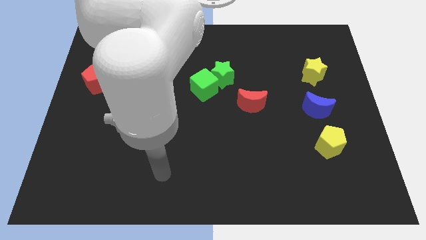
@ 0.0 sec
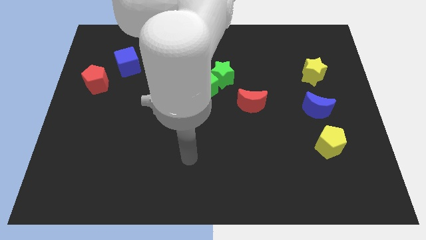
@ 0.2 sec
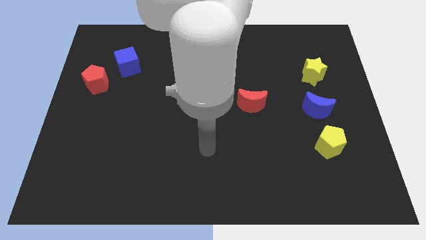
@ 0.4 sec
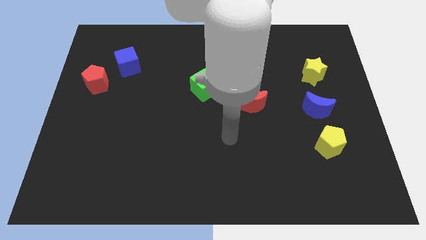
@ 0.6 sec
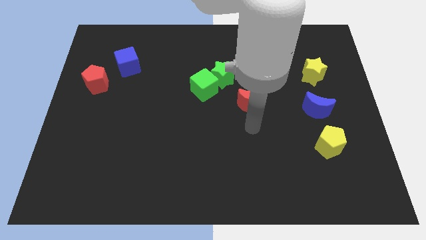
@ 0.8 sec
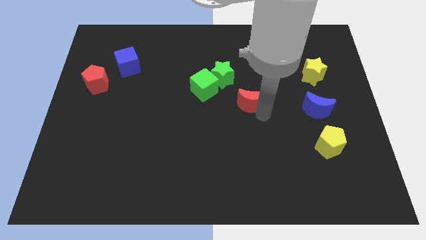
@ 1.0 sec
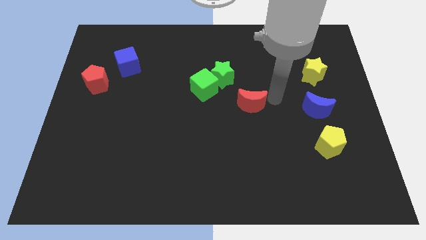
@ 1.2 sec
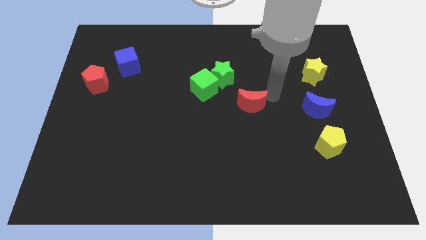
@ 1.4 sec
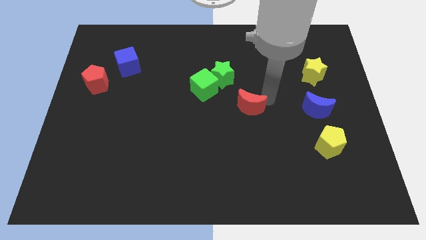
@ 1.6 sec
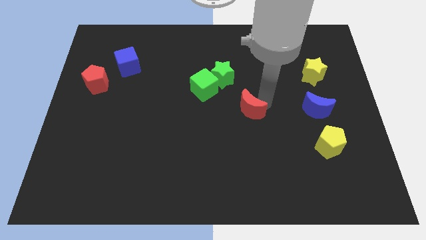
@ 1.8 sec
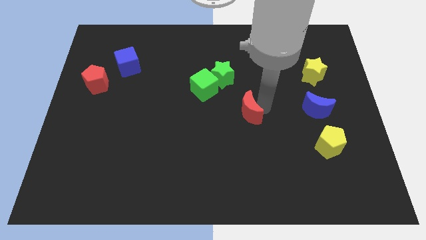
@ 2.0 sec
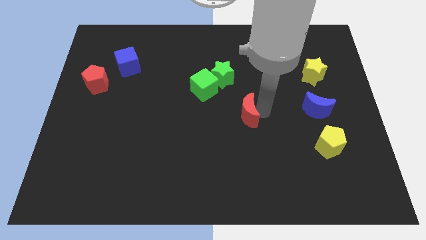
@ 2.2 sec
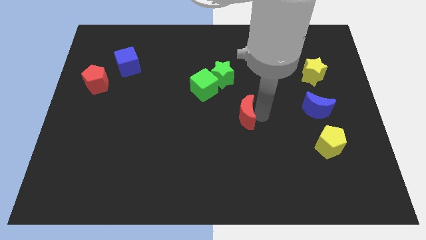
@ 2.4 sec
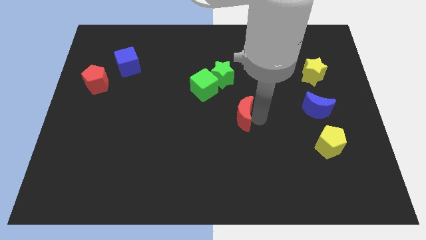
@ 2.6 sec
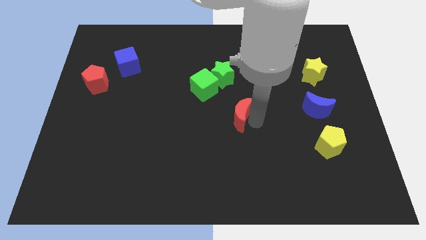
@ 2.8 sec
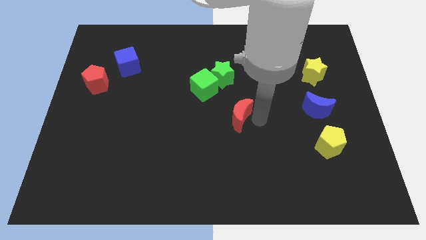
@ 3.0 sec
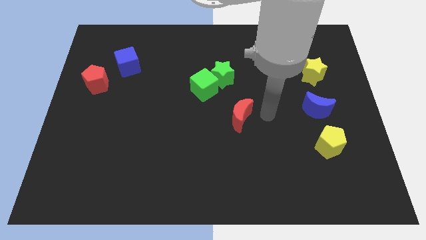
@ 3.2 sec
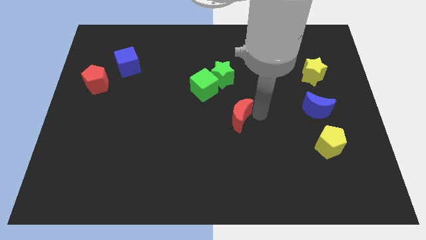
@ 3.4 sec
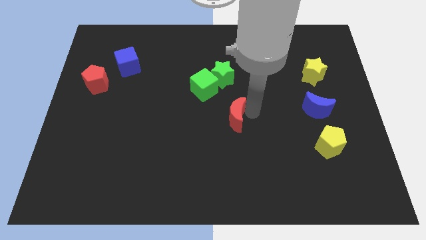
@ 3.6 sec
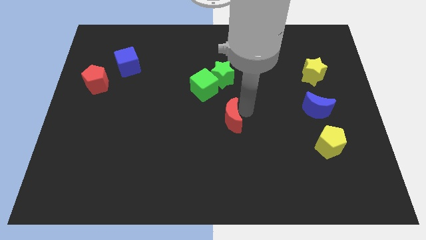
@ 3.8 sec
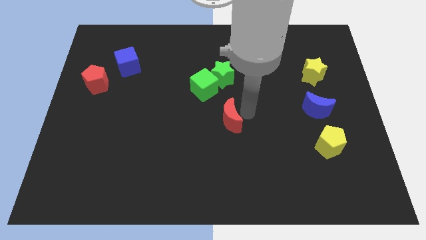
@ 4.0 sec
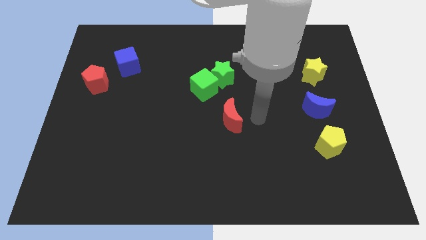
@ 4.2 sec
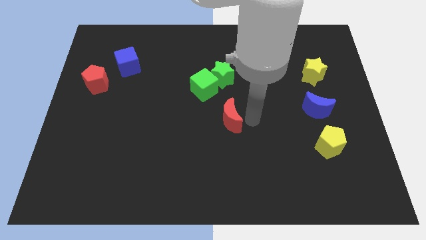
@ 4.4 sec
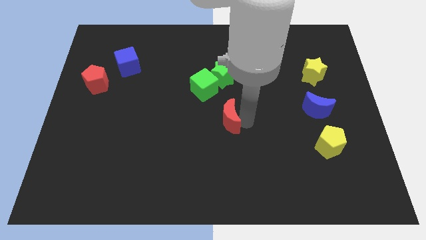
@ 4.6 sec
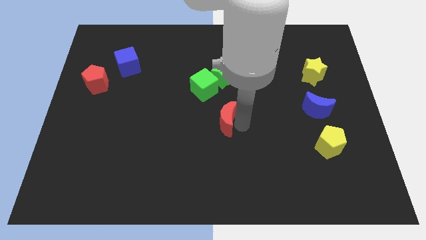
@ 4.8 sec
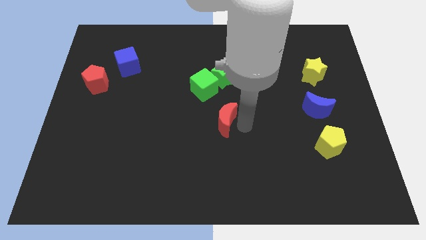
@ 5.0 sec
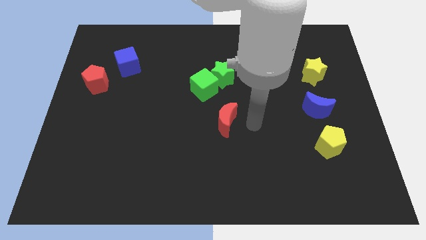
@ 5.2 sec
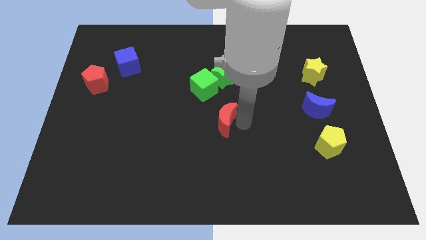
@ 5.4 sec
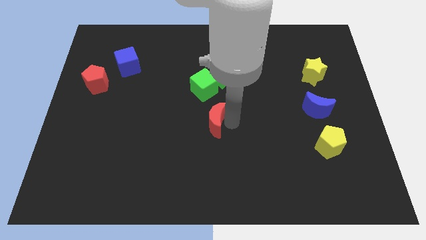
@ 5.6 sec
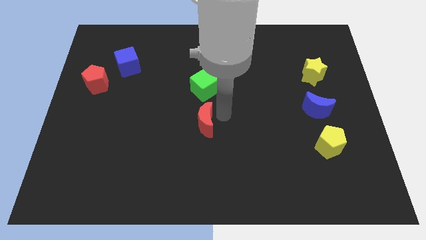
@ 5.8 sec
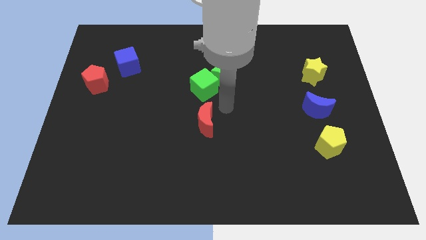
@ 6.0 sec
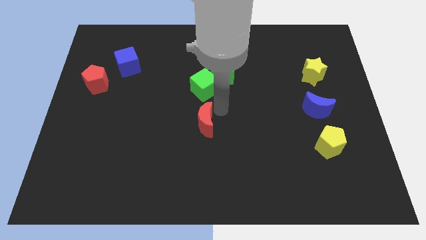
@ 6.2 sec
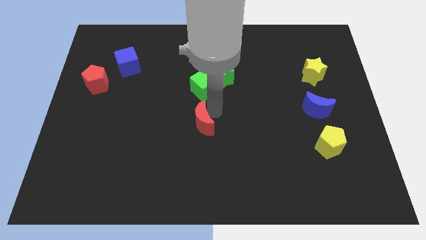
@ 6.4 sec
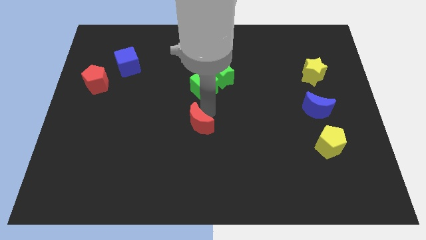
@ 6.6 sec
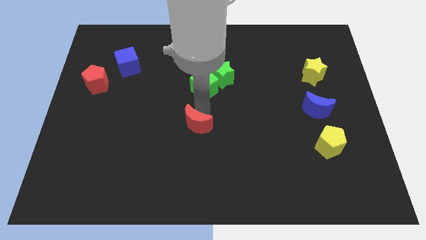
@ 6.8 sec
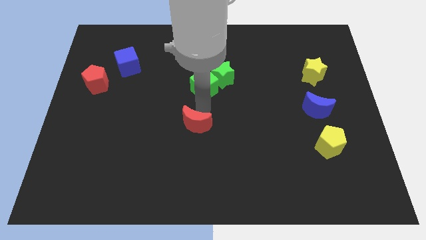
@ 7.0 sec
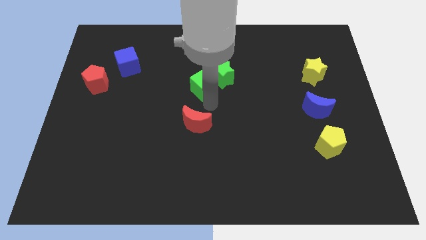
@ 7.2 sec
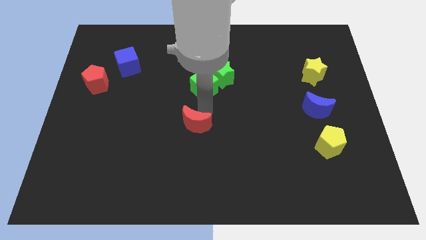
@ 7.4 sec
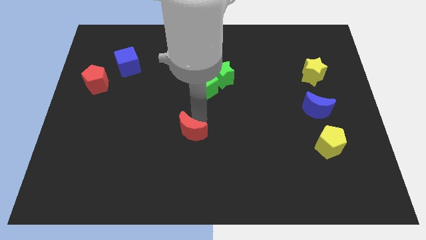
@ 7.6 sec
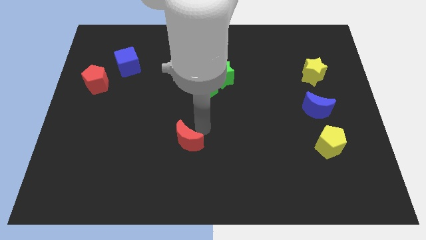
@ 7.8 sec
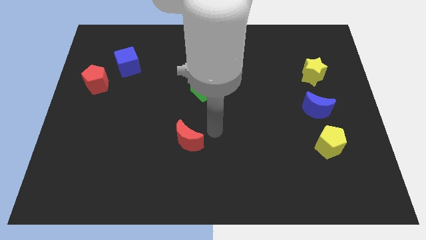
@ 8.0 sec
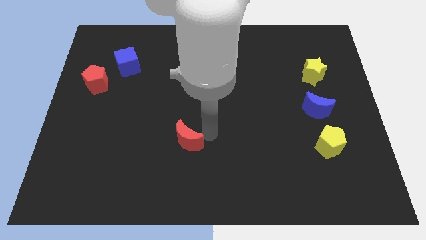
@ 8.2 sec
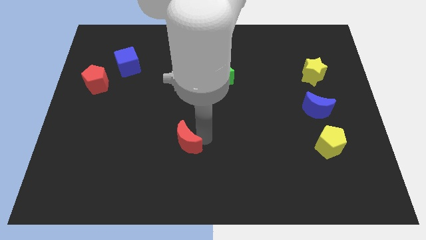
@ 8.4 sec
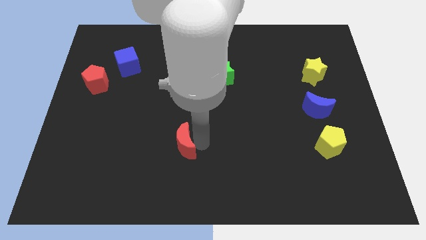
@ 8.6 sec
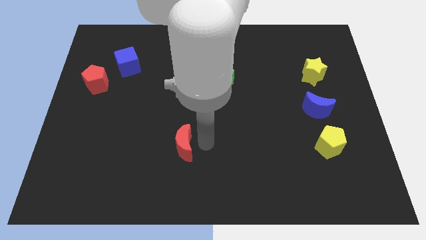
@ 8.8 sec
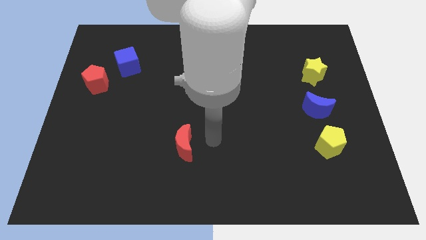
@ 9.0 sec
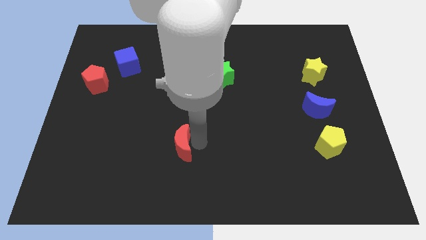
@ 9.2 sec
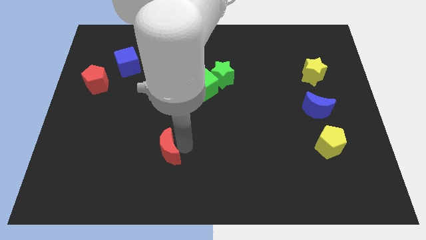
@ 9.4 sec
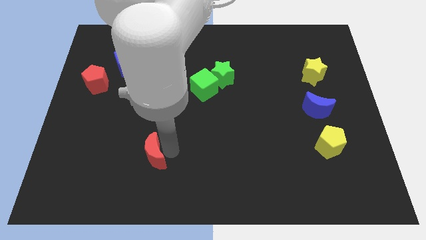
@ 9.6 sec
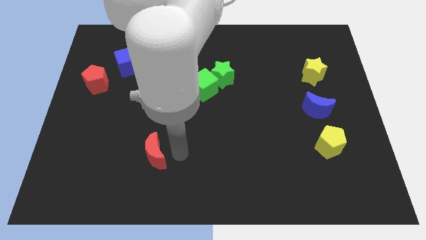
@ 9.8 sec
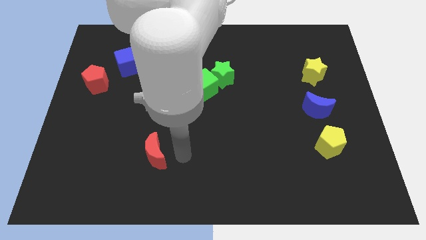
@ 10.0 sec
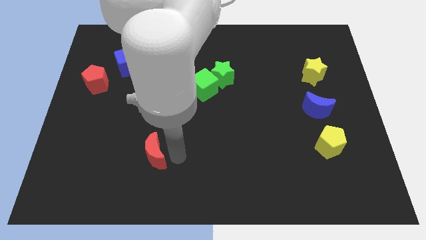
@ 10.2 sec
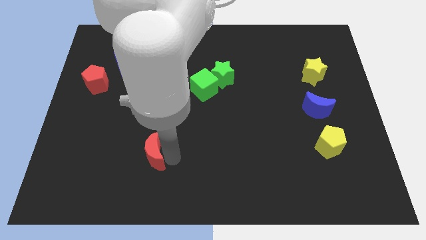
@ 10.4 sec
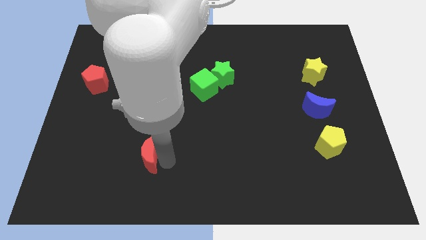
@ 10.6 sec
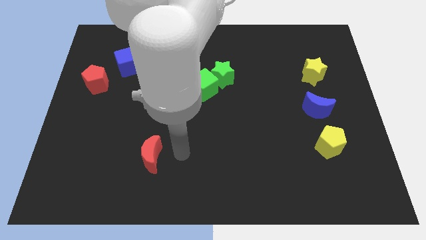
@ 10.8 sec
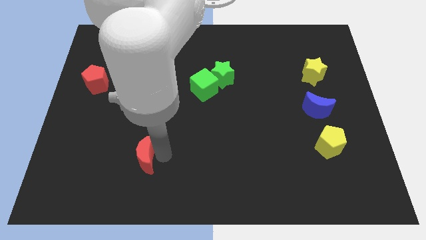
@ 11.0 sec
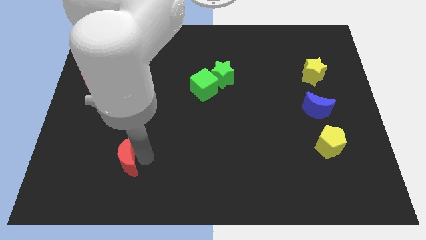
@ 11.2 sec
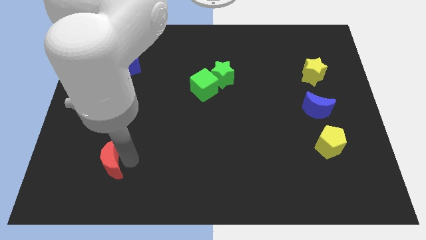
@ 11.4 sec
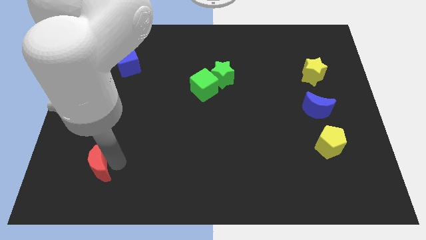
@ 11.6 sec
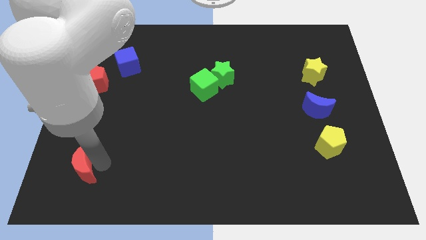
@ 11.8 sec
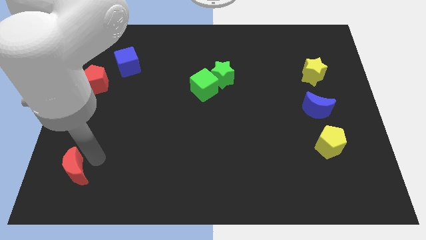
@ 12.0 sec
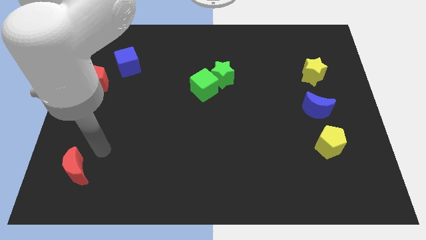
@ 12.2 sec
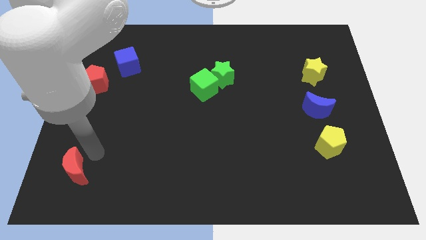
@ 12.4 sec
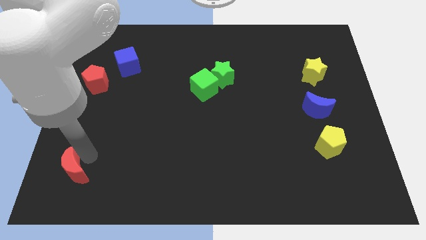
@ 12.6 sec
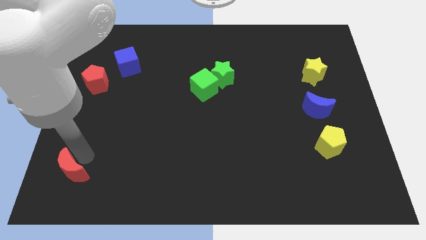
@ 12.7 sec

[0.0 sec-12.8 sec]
slide the red moon to the bottom left corner

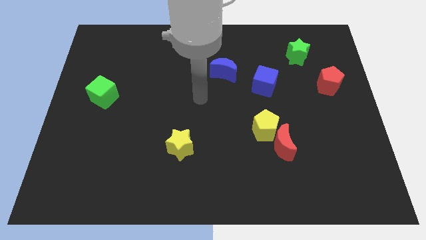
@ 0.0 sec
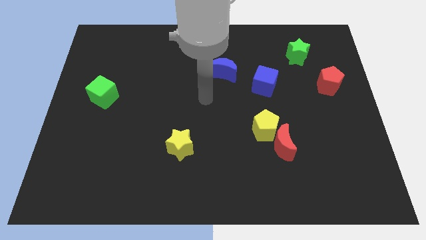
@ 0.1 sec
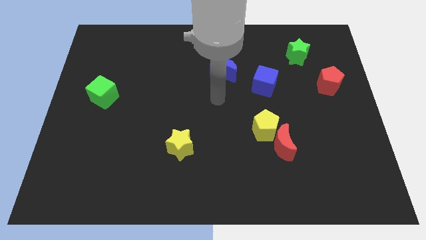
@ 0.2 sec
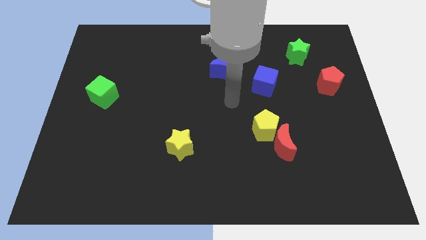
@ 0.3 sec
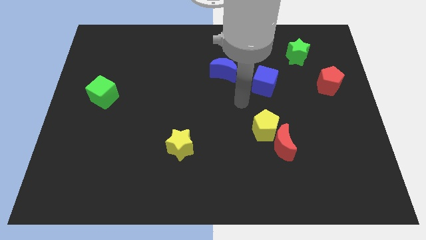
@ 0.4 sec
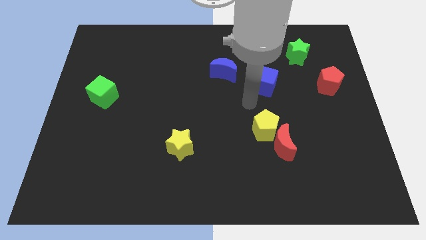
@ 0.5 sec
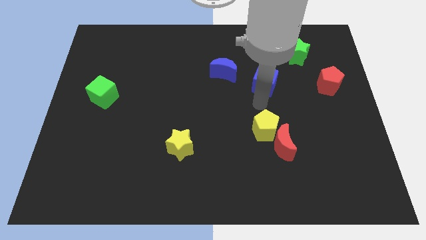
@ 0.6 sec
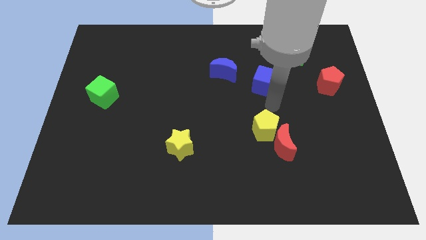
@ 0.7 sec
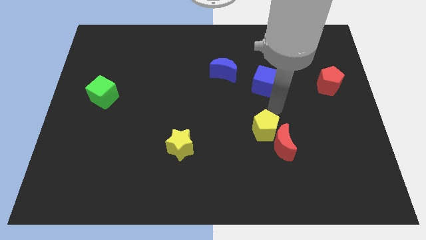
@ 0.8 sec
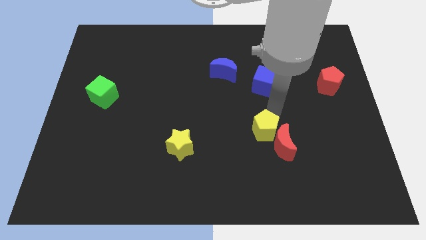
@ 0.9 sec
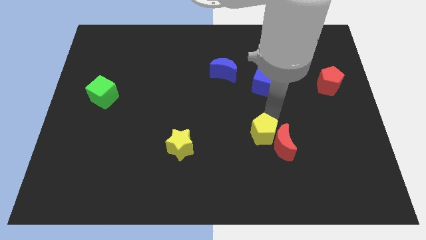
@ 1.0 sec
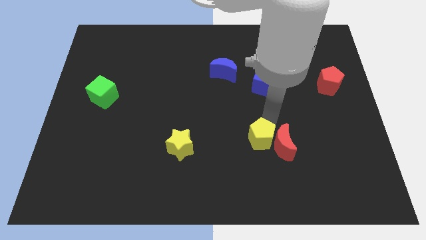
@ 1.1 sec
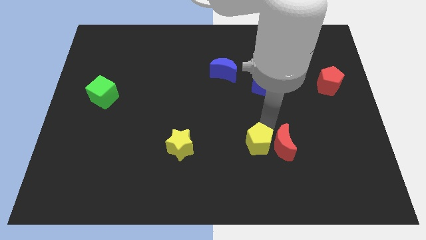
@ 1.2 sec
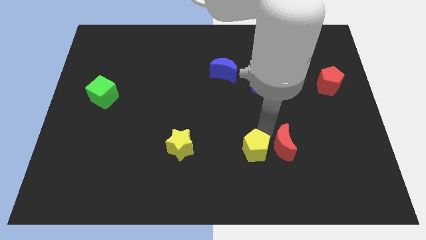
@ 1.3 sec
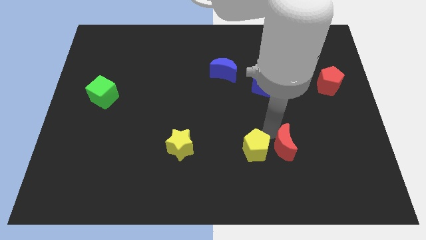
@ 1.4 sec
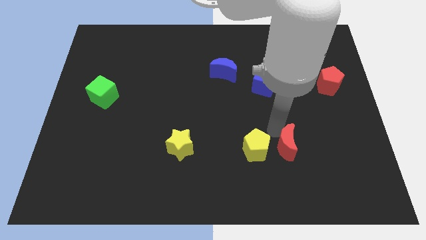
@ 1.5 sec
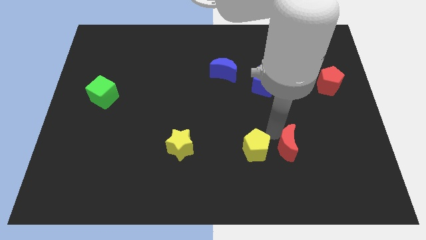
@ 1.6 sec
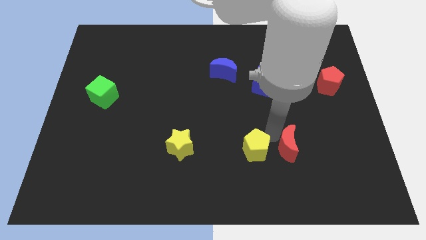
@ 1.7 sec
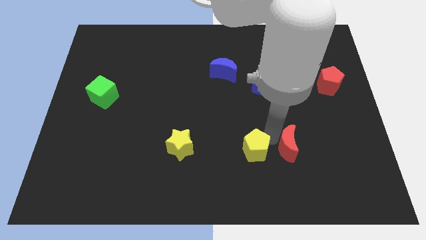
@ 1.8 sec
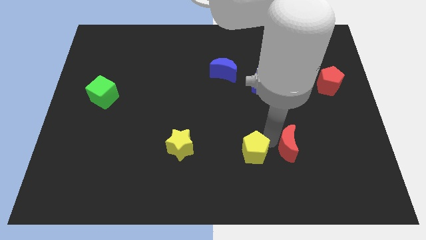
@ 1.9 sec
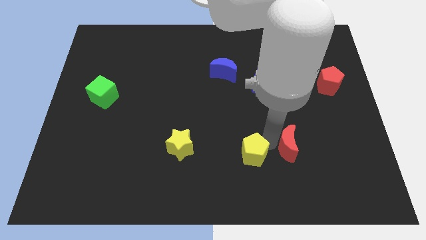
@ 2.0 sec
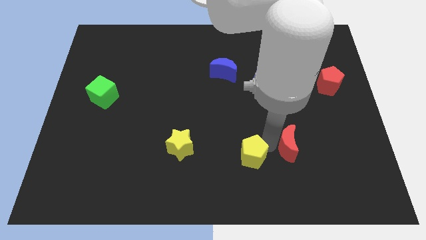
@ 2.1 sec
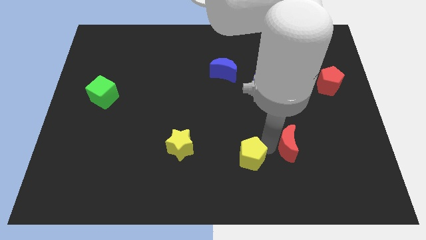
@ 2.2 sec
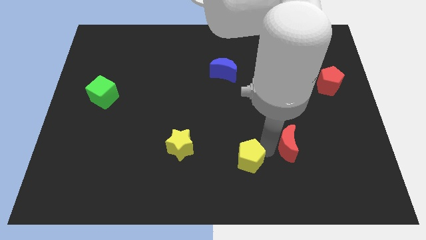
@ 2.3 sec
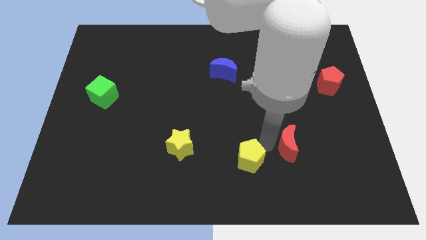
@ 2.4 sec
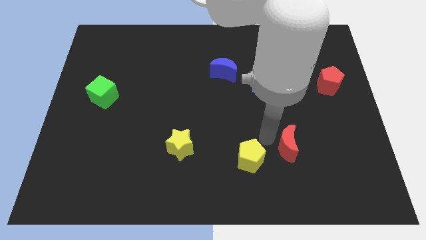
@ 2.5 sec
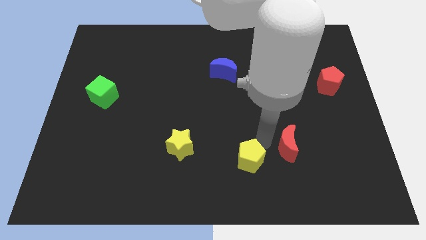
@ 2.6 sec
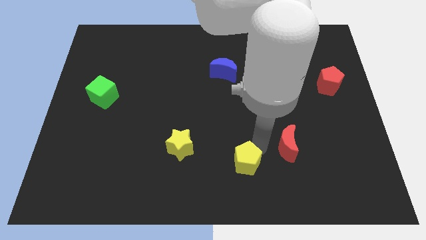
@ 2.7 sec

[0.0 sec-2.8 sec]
push the yellow pentagon to the bottom
